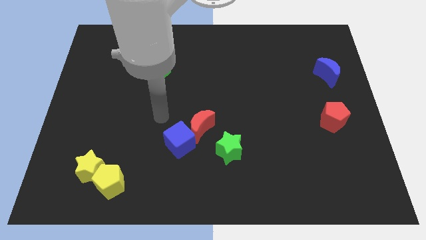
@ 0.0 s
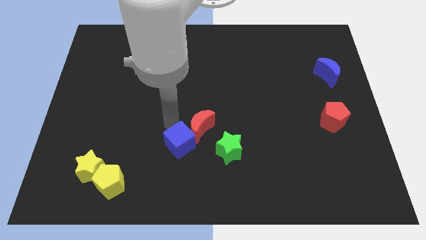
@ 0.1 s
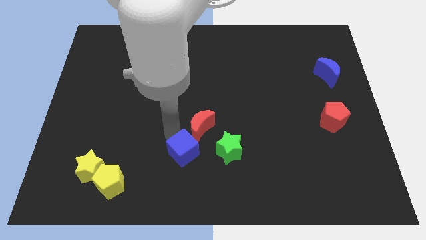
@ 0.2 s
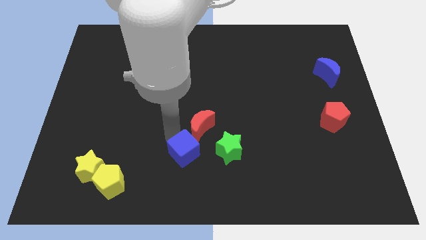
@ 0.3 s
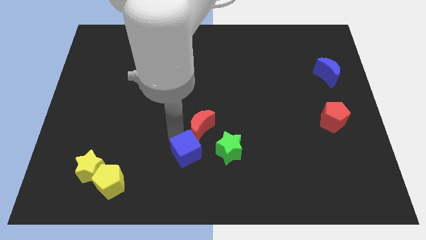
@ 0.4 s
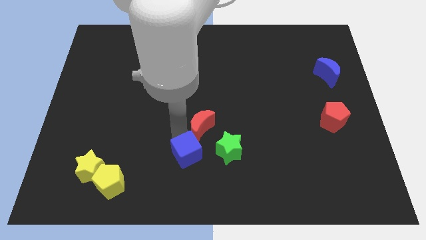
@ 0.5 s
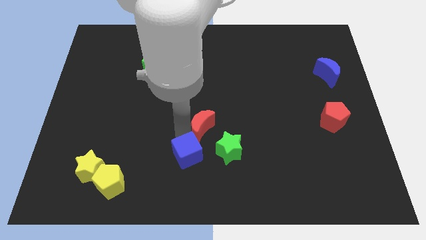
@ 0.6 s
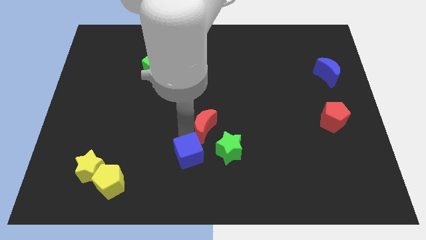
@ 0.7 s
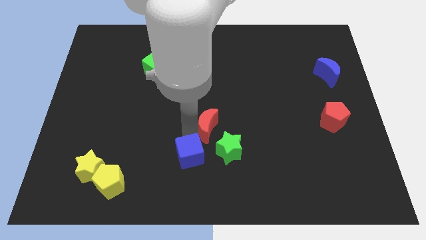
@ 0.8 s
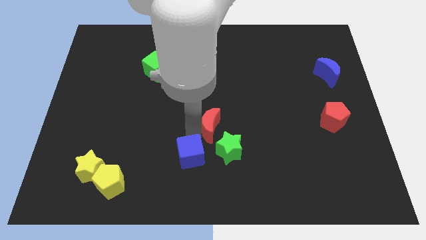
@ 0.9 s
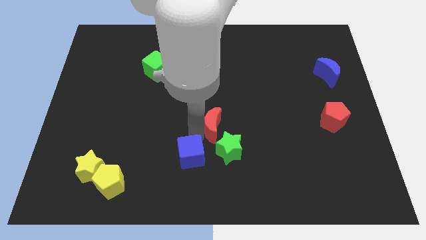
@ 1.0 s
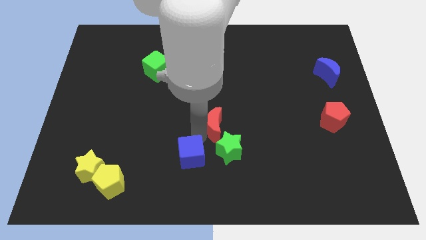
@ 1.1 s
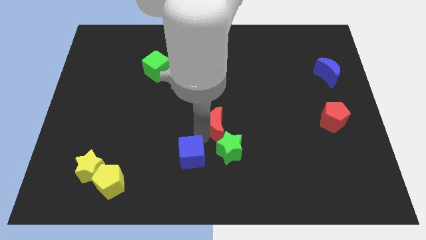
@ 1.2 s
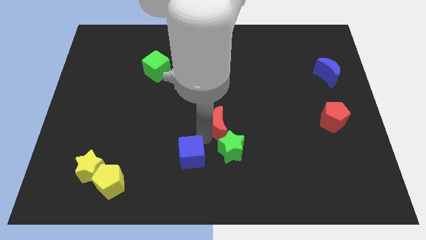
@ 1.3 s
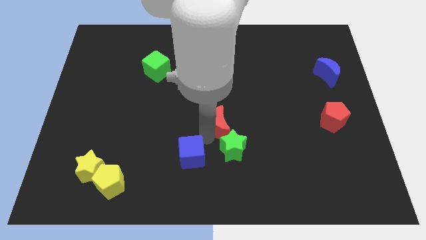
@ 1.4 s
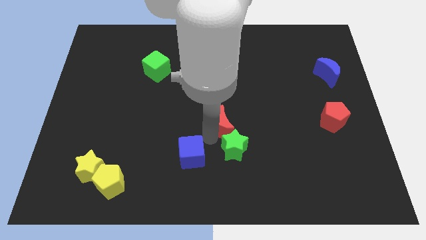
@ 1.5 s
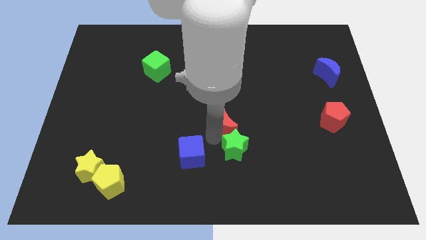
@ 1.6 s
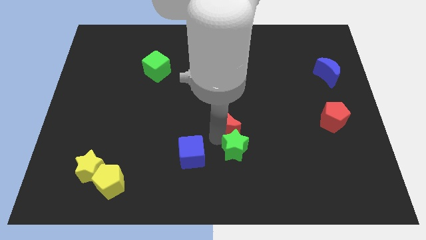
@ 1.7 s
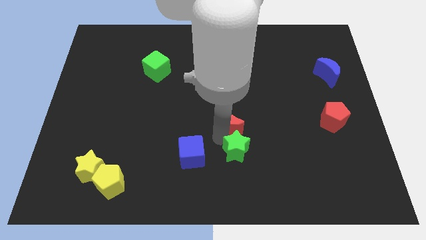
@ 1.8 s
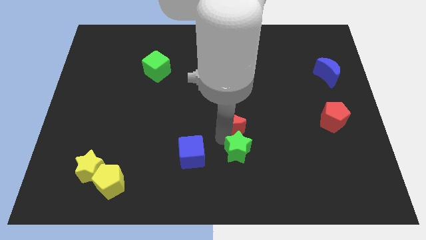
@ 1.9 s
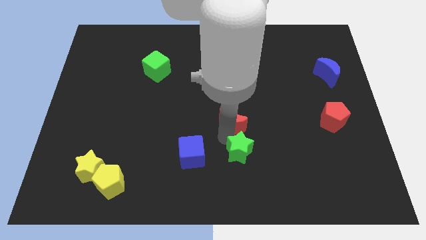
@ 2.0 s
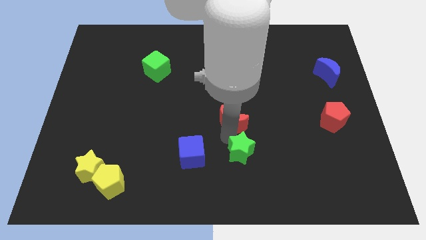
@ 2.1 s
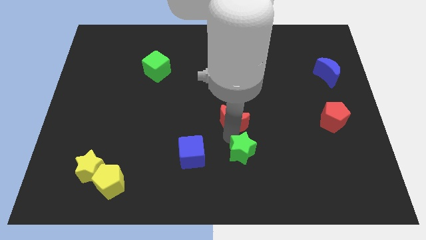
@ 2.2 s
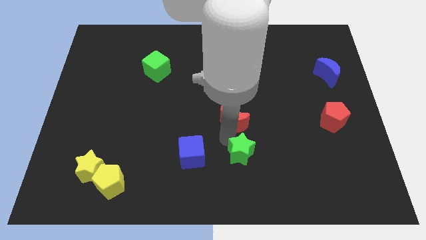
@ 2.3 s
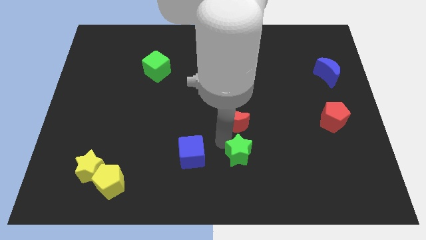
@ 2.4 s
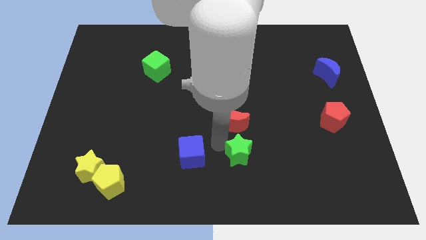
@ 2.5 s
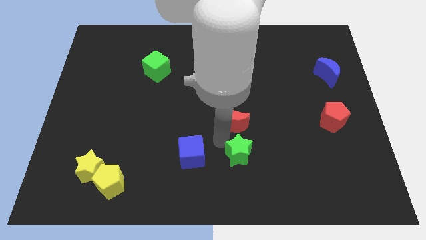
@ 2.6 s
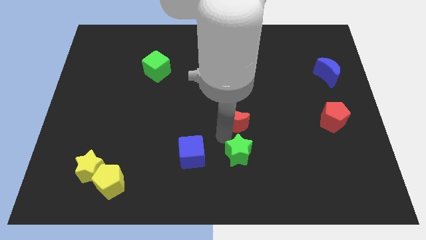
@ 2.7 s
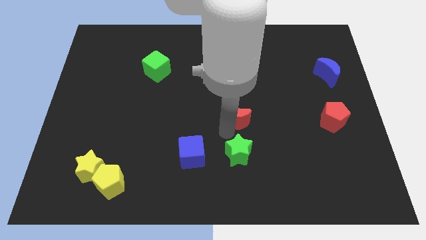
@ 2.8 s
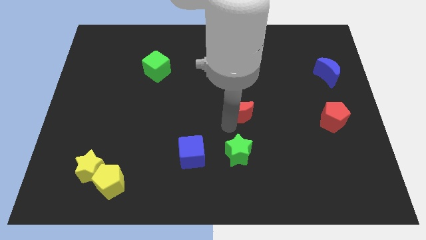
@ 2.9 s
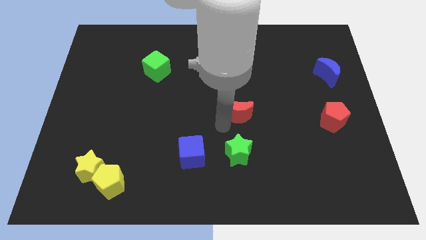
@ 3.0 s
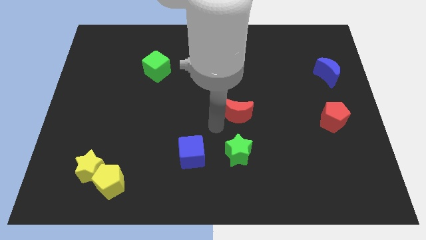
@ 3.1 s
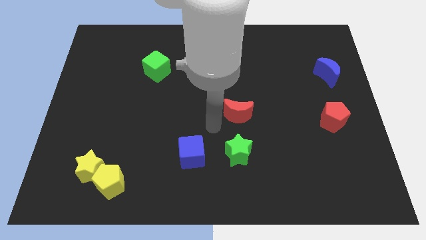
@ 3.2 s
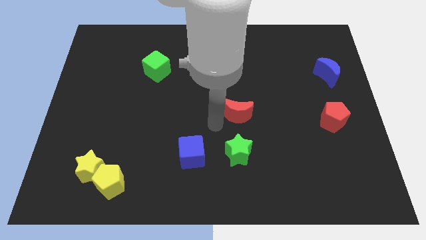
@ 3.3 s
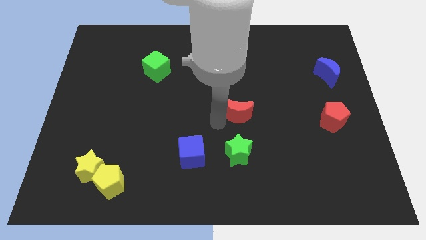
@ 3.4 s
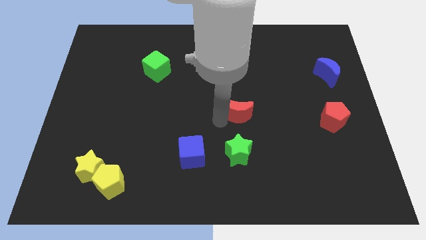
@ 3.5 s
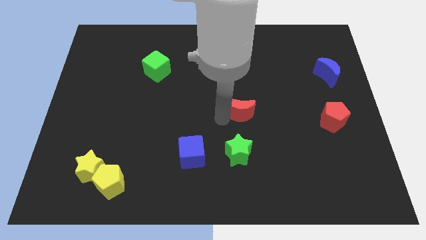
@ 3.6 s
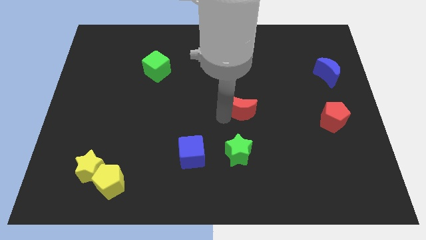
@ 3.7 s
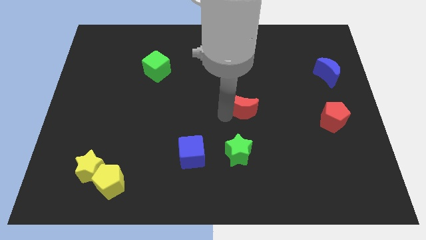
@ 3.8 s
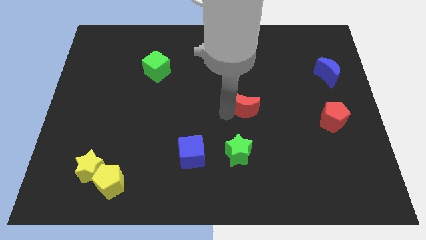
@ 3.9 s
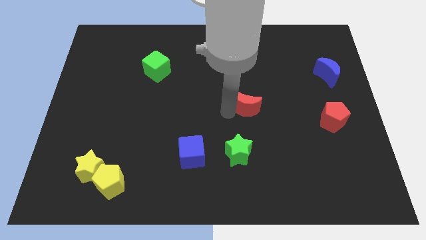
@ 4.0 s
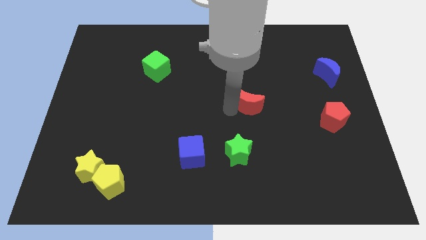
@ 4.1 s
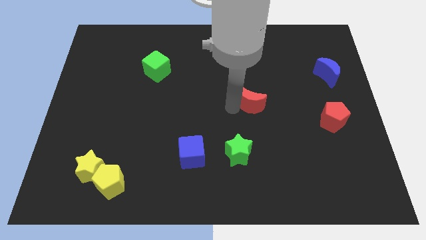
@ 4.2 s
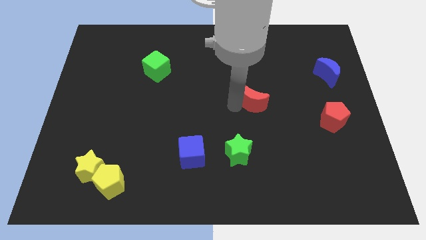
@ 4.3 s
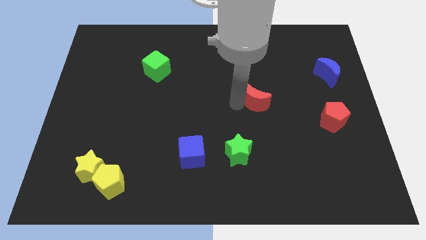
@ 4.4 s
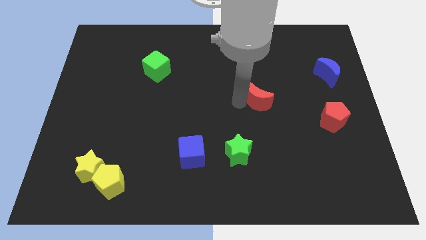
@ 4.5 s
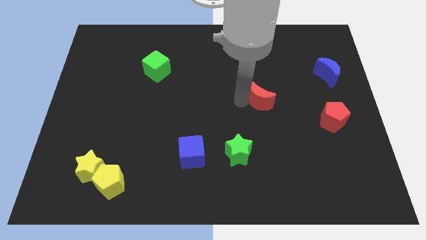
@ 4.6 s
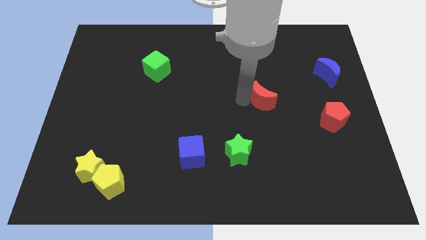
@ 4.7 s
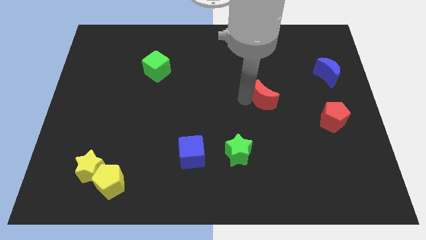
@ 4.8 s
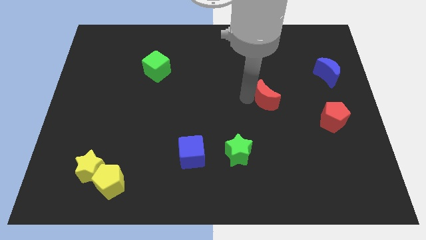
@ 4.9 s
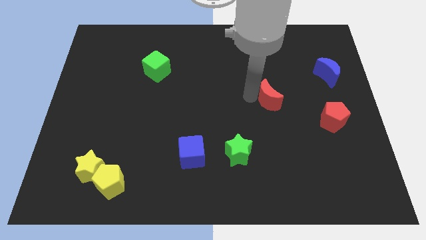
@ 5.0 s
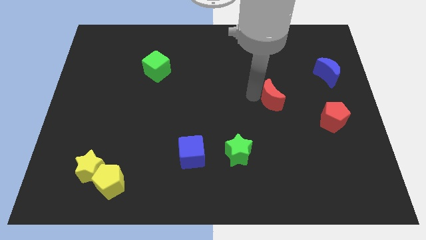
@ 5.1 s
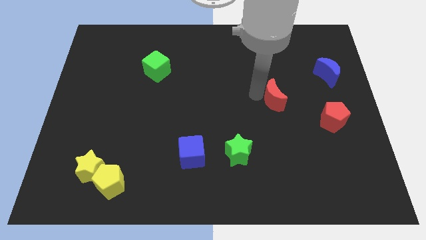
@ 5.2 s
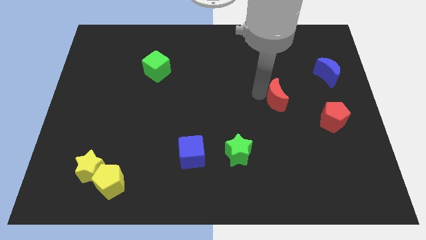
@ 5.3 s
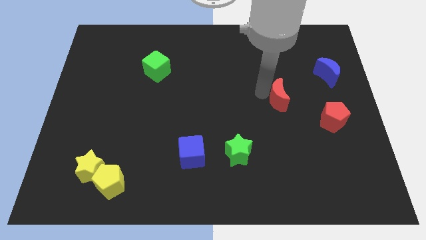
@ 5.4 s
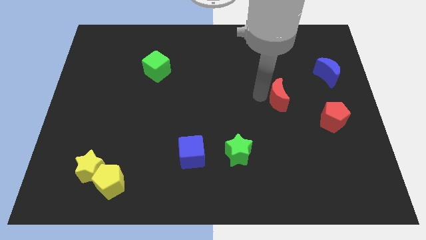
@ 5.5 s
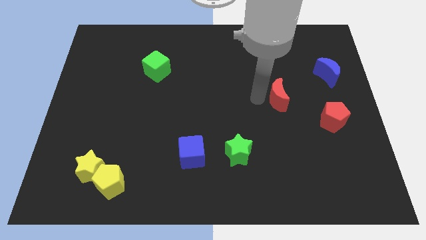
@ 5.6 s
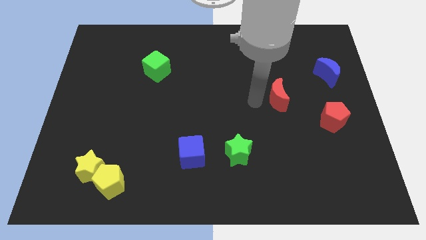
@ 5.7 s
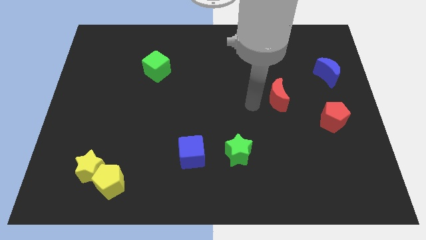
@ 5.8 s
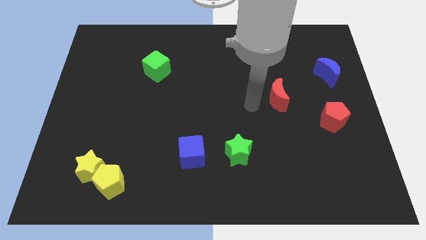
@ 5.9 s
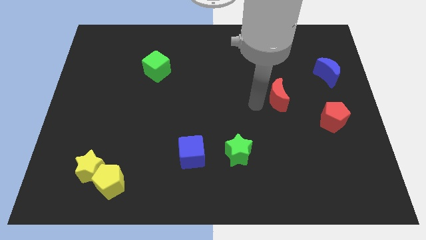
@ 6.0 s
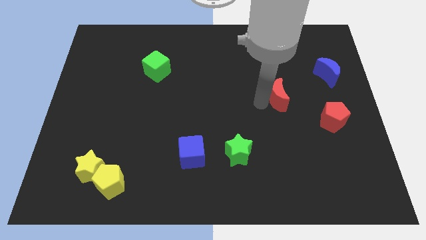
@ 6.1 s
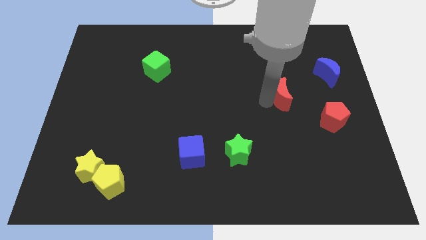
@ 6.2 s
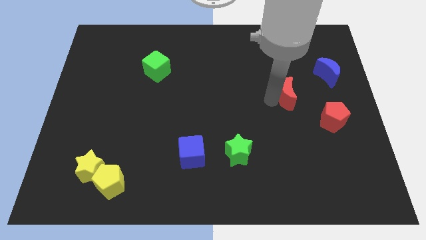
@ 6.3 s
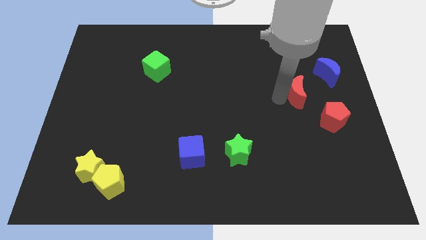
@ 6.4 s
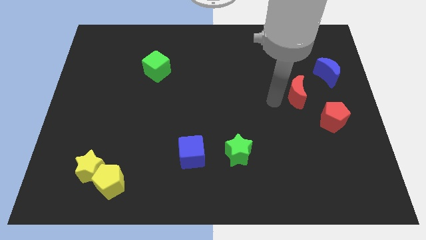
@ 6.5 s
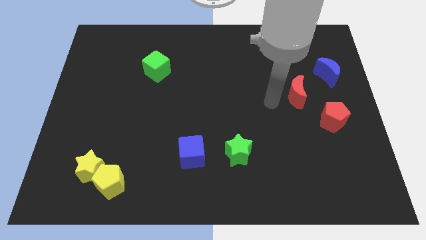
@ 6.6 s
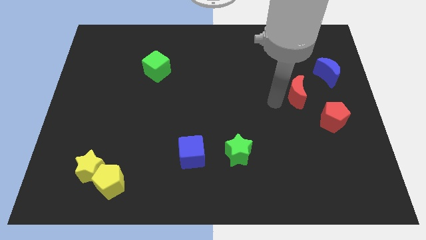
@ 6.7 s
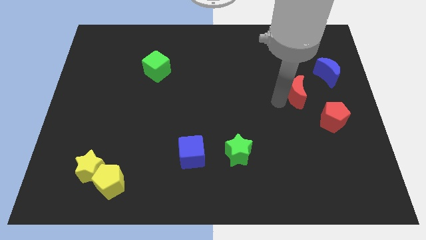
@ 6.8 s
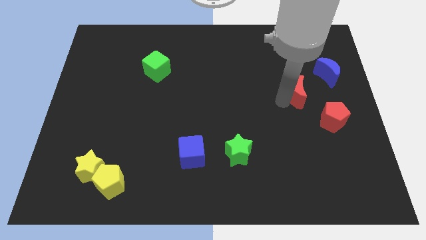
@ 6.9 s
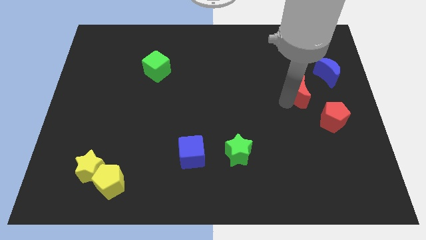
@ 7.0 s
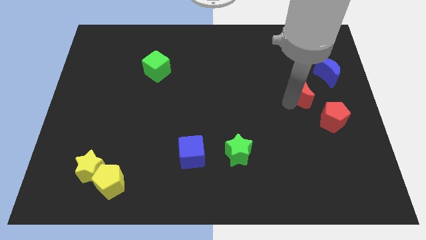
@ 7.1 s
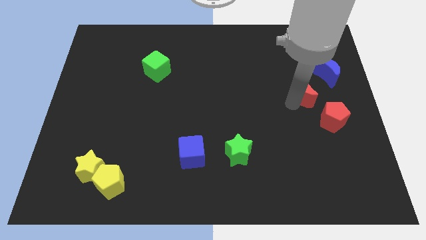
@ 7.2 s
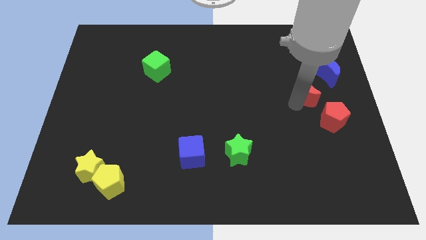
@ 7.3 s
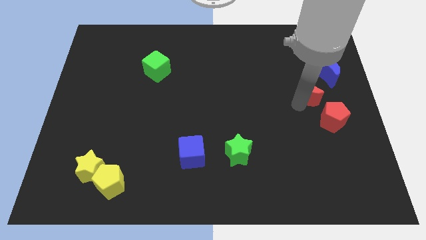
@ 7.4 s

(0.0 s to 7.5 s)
push the red moon above the red pentagon
